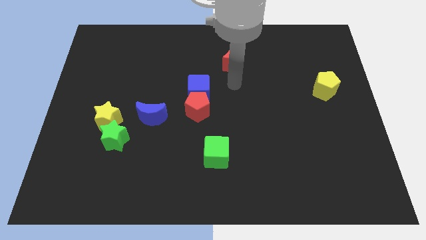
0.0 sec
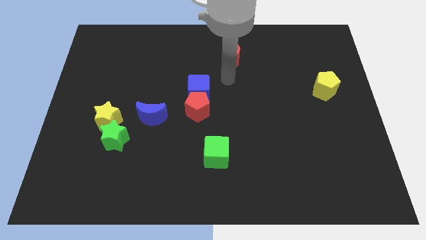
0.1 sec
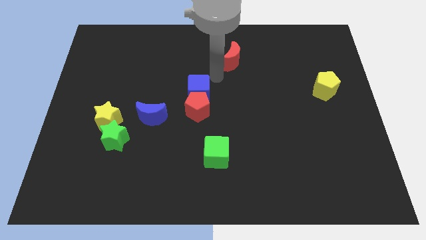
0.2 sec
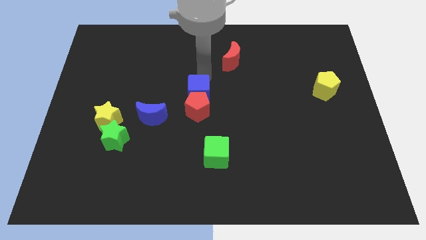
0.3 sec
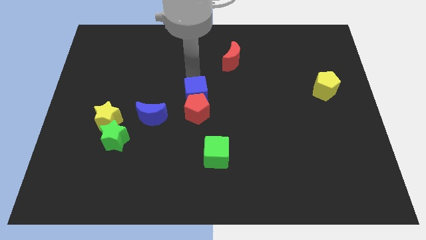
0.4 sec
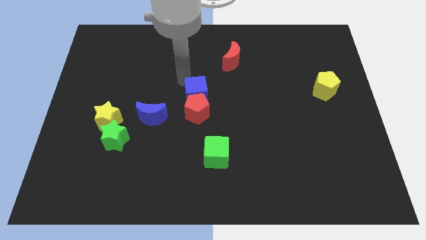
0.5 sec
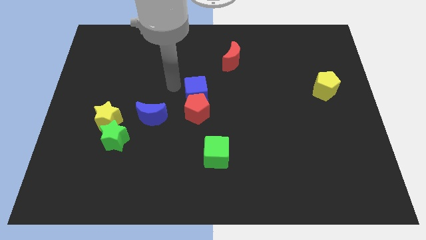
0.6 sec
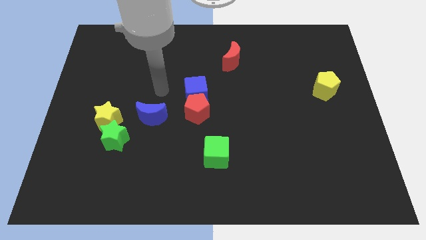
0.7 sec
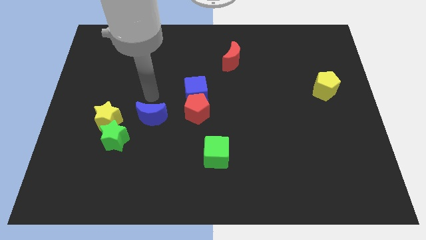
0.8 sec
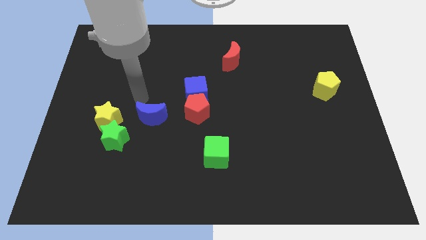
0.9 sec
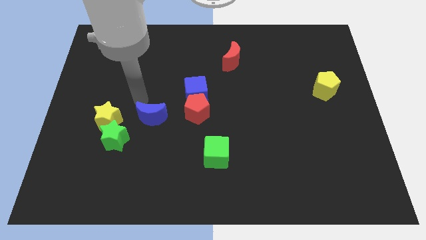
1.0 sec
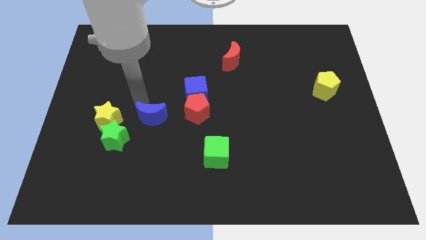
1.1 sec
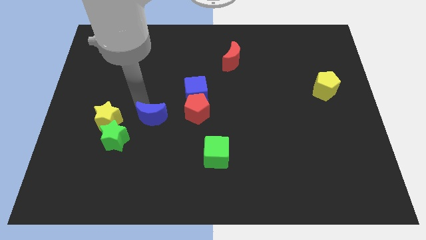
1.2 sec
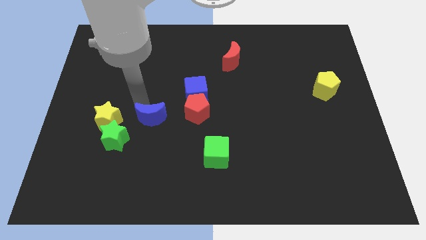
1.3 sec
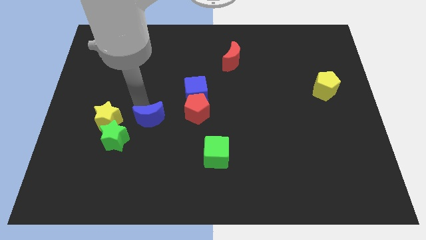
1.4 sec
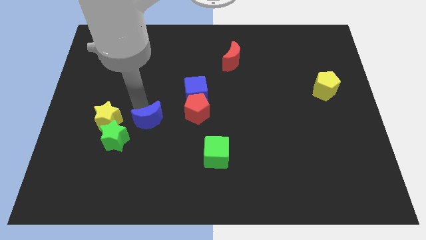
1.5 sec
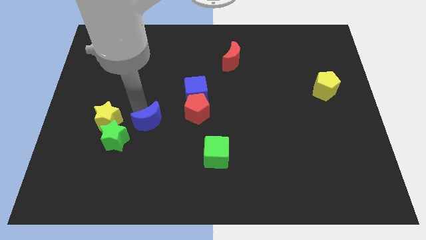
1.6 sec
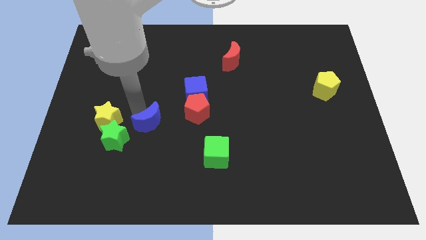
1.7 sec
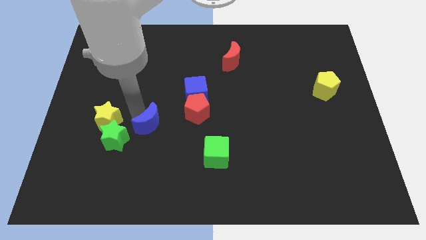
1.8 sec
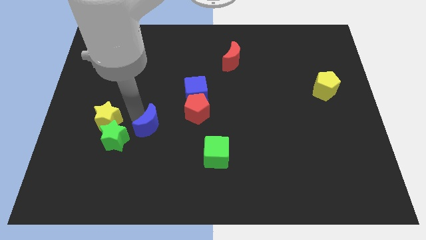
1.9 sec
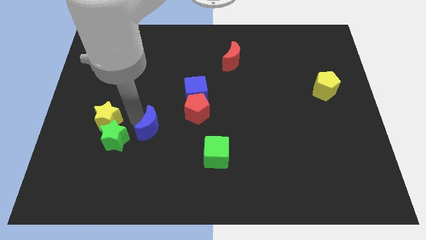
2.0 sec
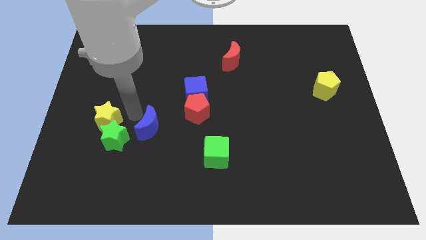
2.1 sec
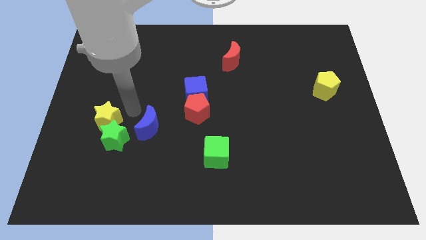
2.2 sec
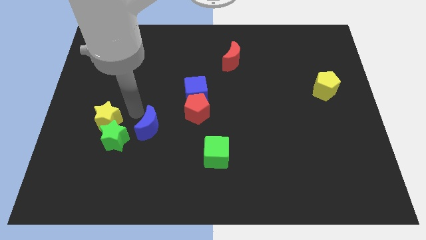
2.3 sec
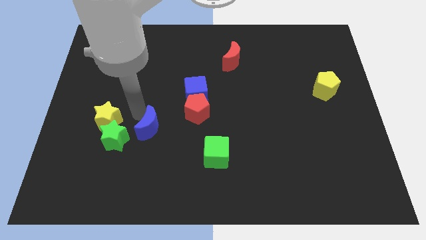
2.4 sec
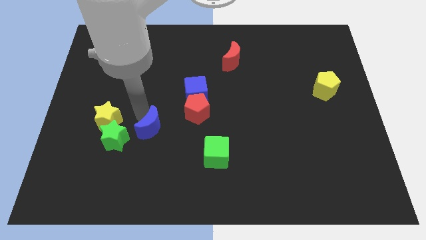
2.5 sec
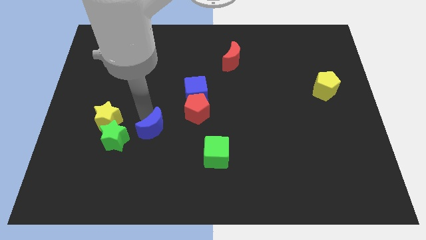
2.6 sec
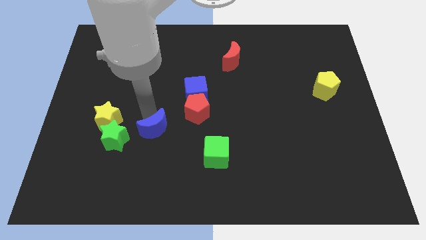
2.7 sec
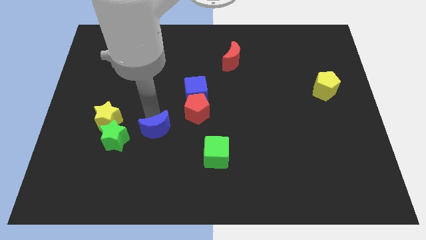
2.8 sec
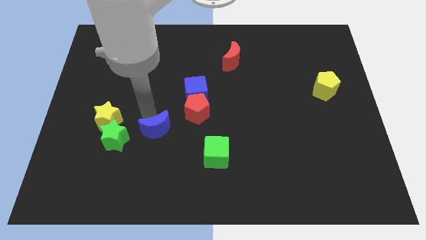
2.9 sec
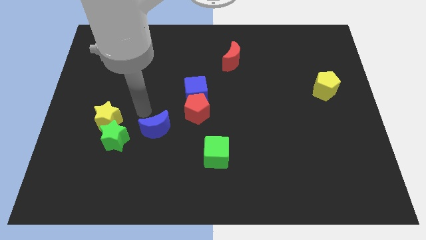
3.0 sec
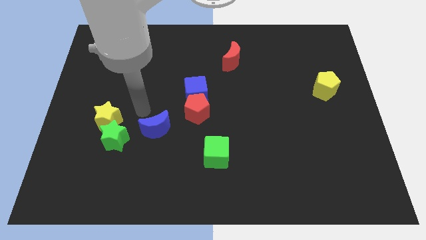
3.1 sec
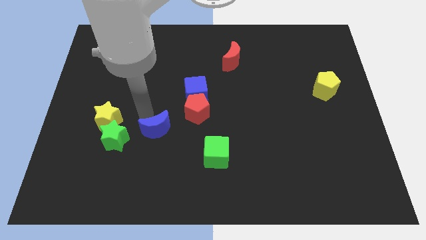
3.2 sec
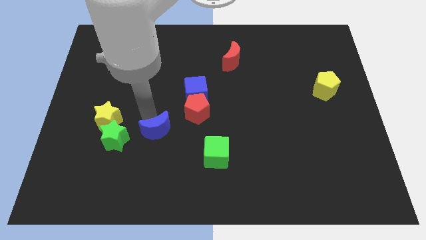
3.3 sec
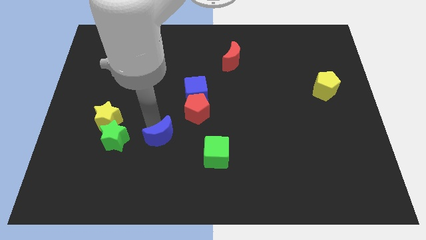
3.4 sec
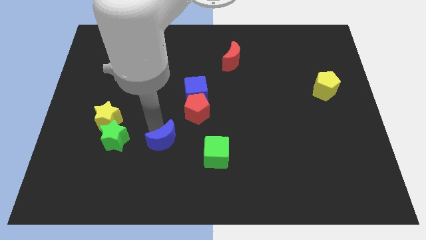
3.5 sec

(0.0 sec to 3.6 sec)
slightly slide the blue moon down and to the right

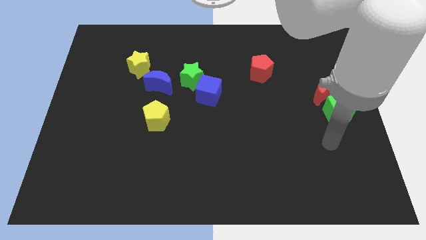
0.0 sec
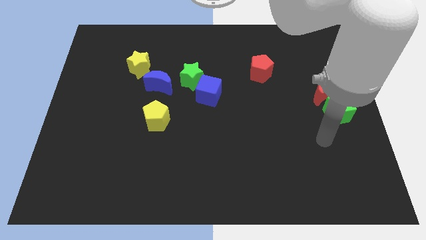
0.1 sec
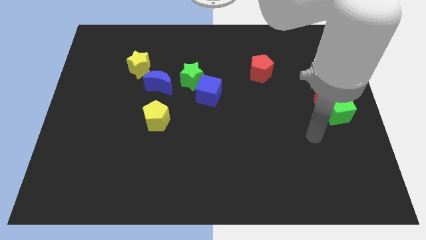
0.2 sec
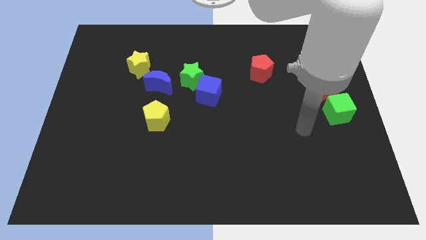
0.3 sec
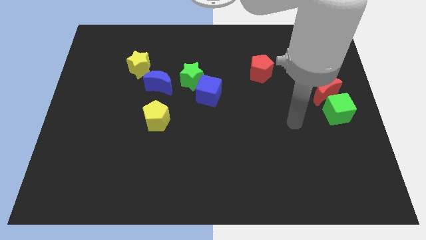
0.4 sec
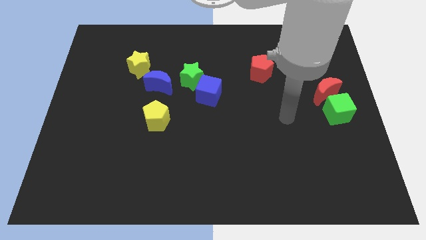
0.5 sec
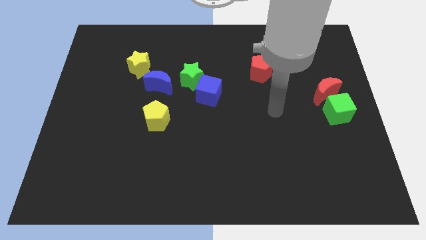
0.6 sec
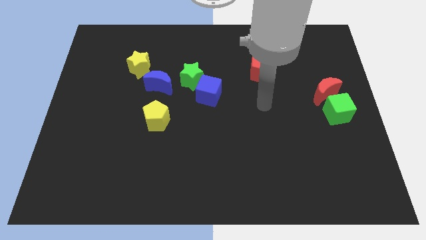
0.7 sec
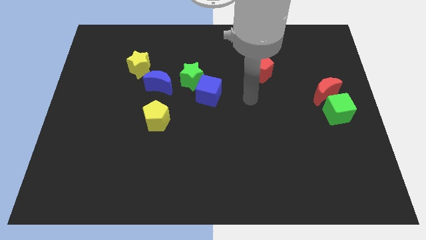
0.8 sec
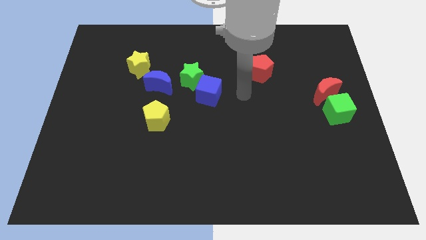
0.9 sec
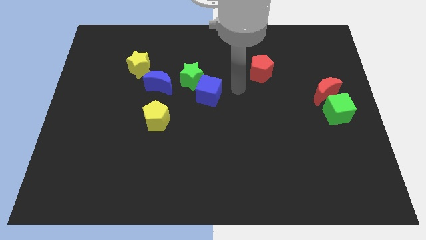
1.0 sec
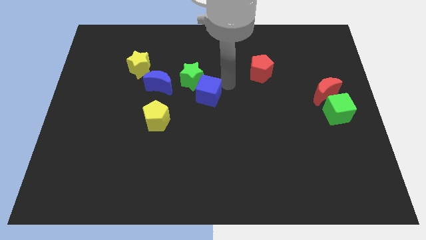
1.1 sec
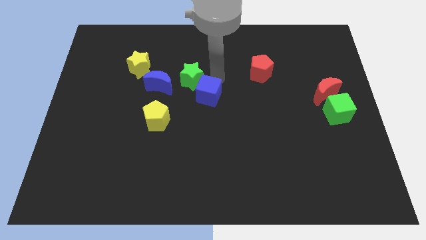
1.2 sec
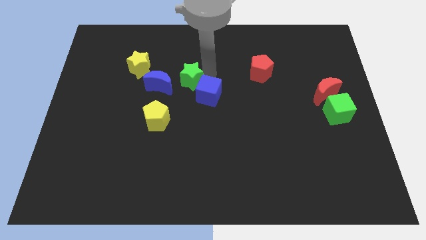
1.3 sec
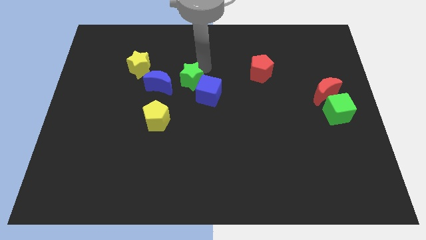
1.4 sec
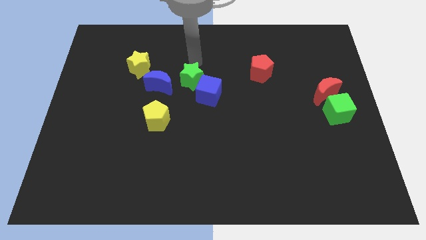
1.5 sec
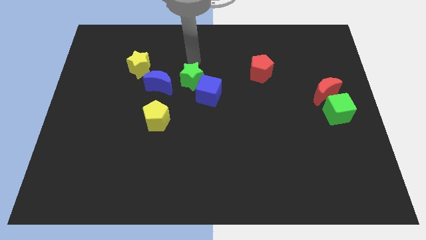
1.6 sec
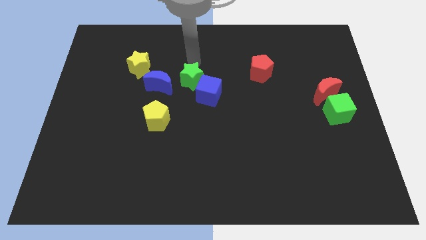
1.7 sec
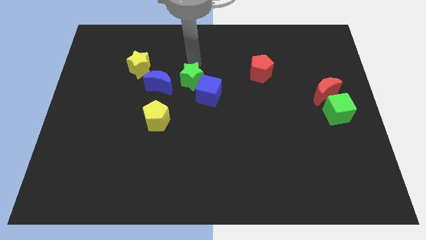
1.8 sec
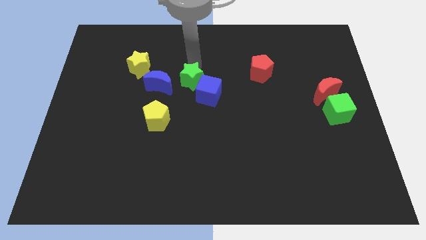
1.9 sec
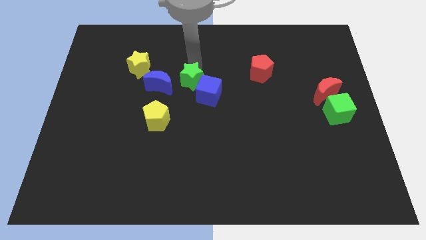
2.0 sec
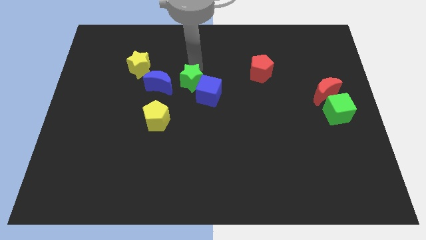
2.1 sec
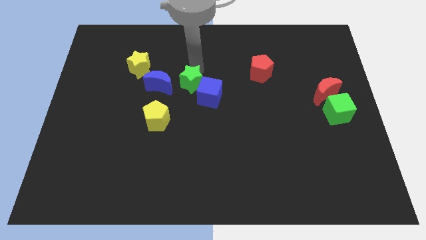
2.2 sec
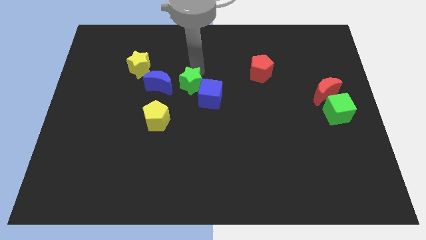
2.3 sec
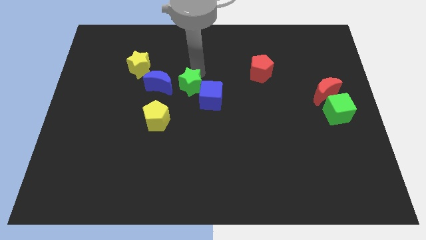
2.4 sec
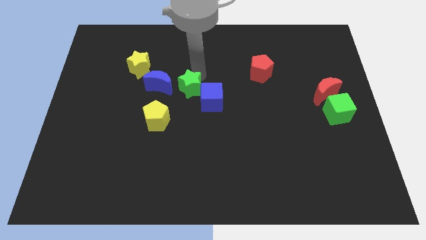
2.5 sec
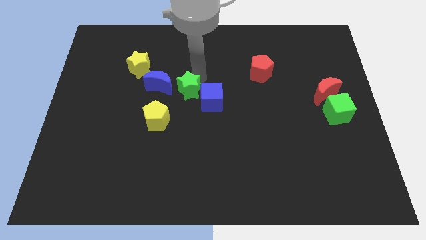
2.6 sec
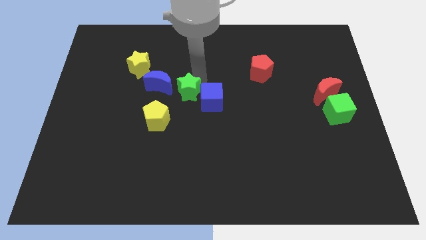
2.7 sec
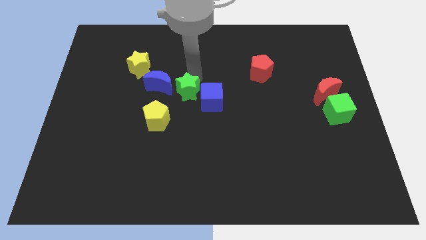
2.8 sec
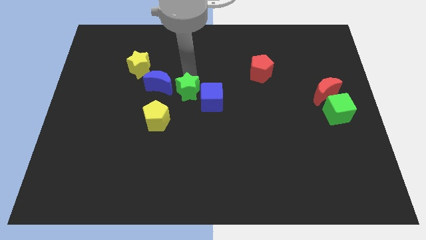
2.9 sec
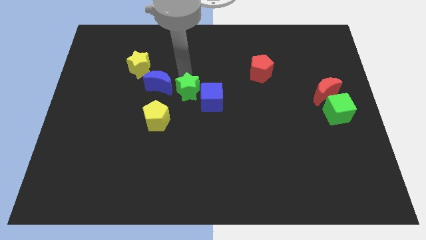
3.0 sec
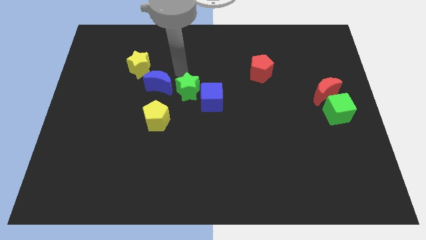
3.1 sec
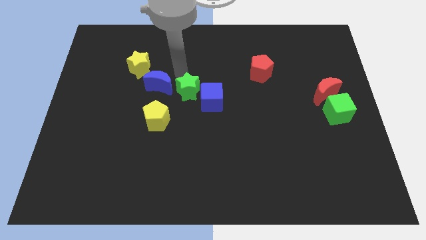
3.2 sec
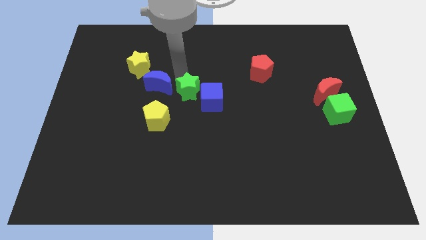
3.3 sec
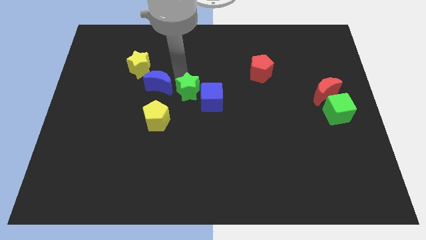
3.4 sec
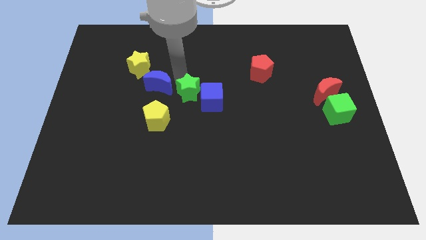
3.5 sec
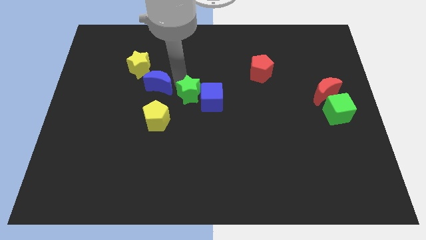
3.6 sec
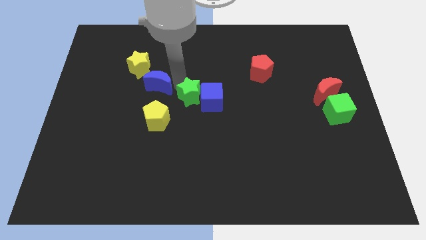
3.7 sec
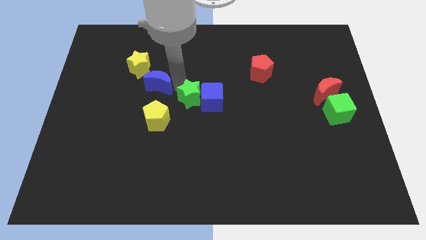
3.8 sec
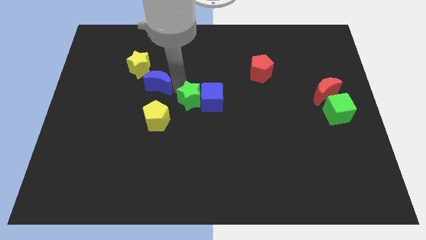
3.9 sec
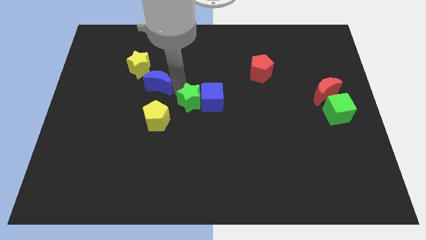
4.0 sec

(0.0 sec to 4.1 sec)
move the green star a little downwards

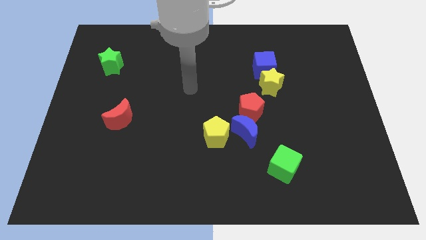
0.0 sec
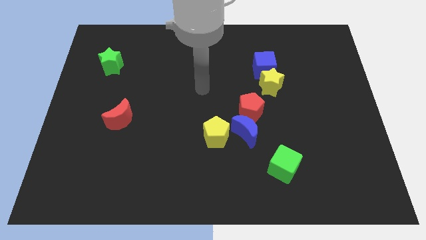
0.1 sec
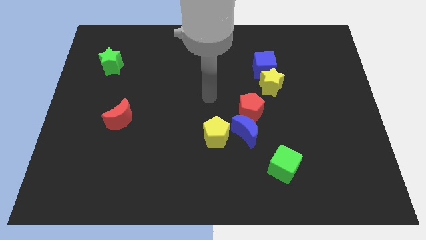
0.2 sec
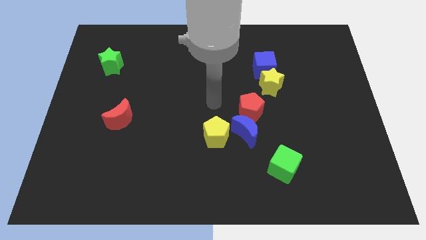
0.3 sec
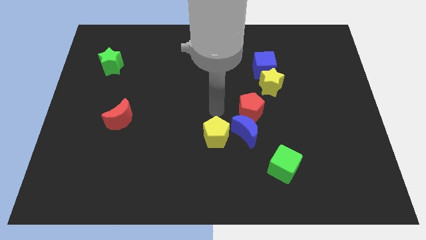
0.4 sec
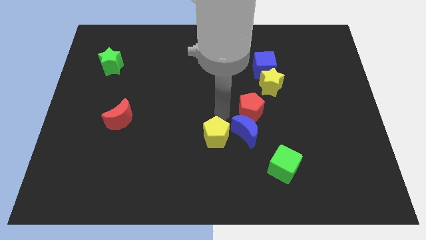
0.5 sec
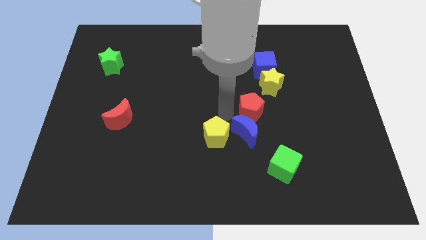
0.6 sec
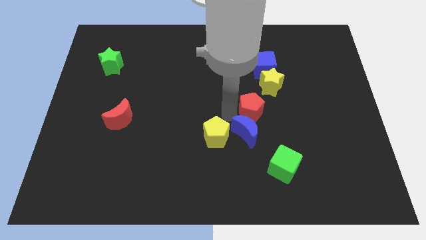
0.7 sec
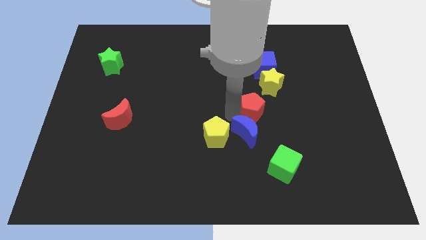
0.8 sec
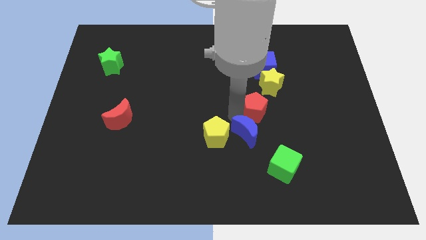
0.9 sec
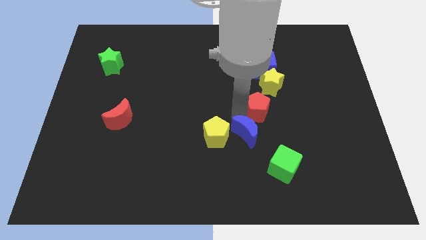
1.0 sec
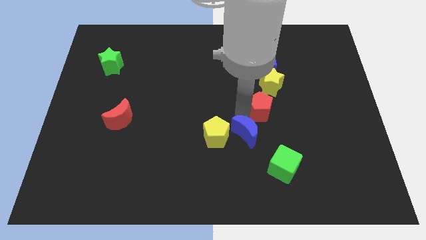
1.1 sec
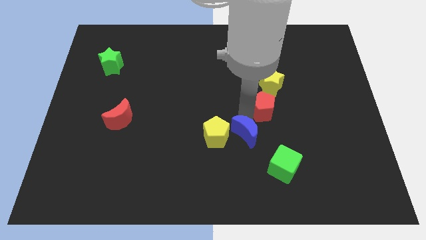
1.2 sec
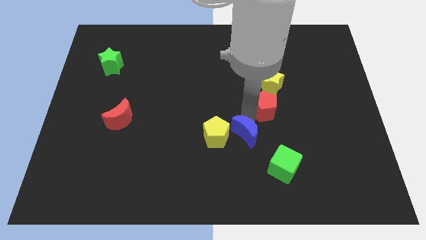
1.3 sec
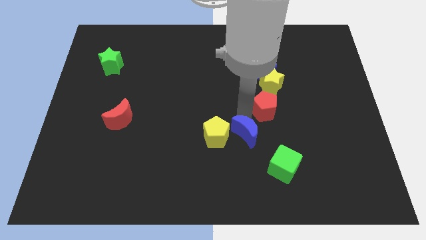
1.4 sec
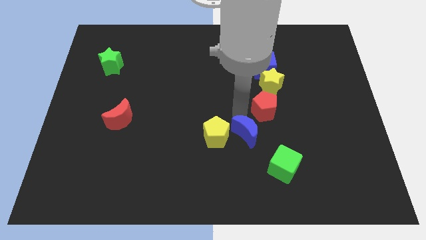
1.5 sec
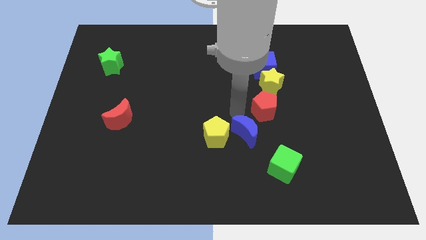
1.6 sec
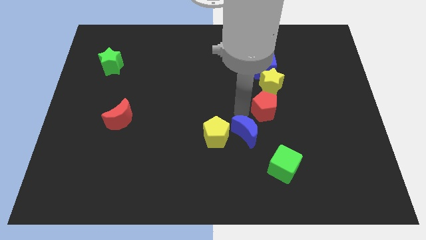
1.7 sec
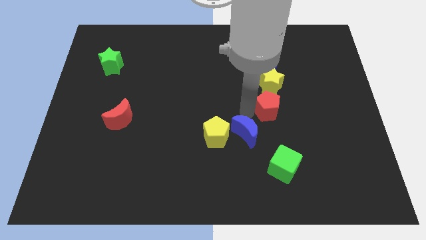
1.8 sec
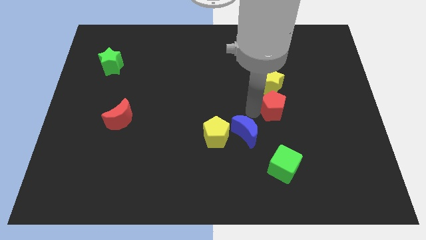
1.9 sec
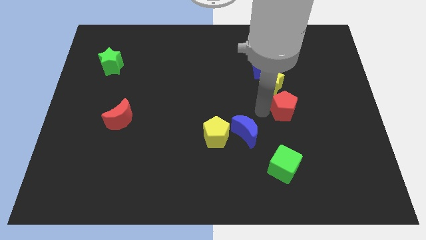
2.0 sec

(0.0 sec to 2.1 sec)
move the red pentagon to the right slightly
